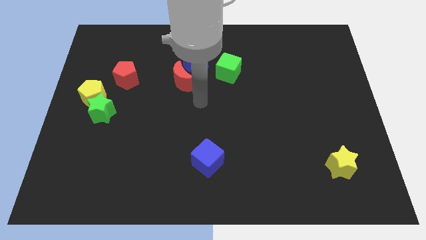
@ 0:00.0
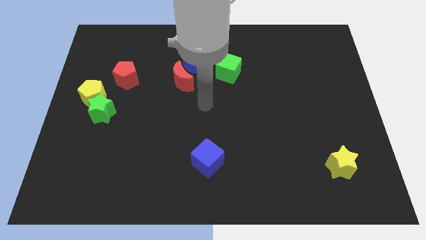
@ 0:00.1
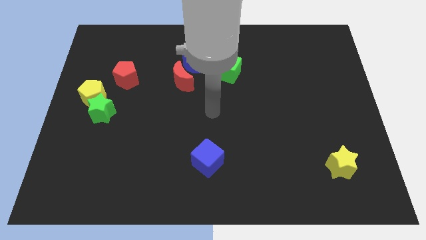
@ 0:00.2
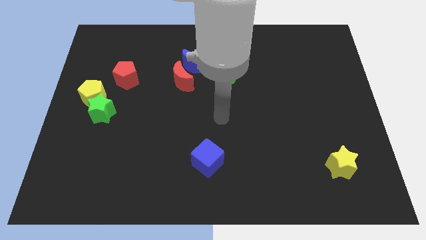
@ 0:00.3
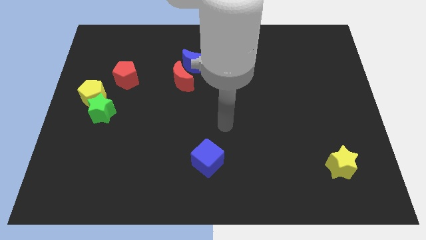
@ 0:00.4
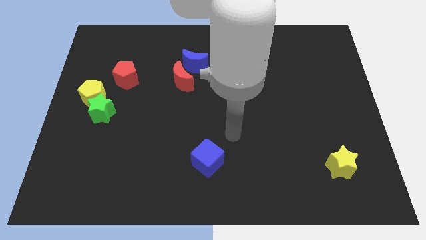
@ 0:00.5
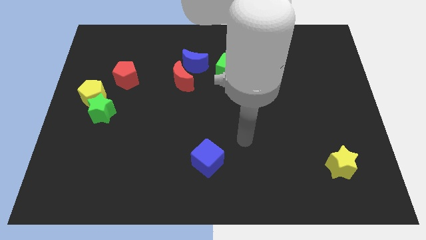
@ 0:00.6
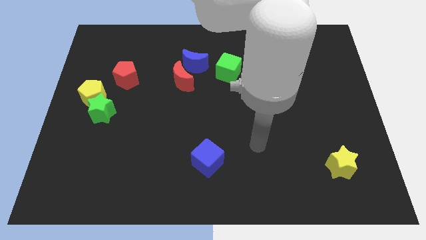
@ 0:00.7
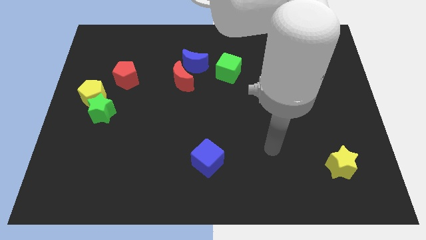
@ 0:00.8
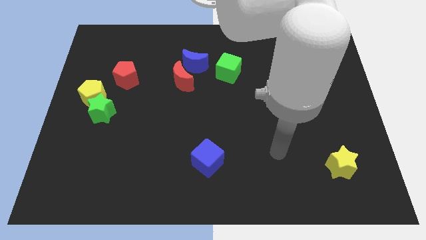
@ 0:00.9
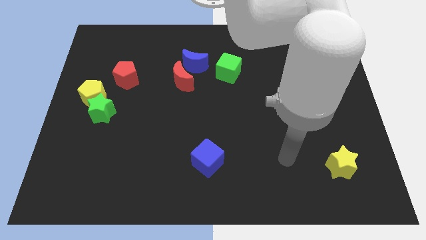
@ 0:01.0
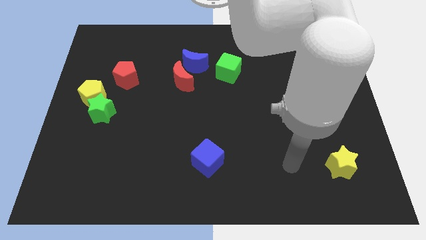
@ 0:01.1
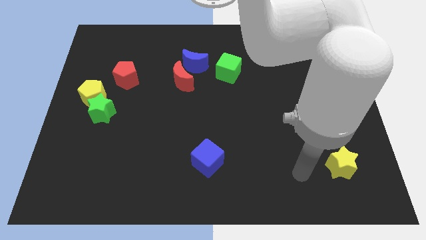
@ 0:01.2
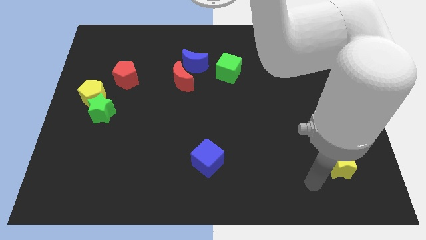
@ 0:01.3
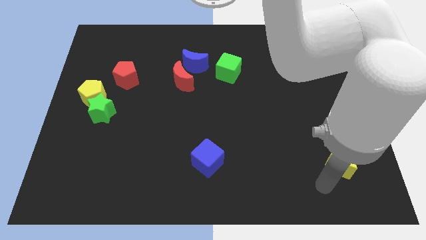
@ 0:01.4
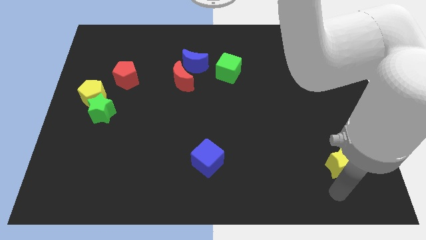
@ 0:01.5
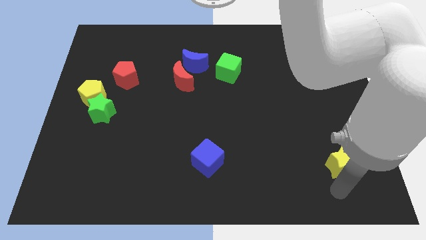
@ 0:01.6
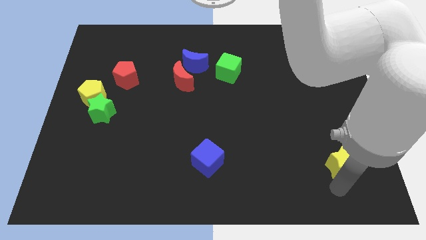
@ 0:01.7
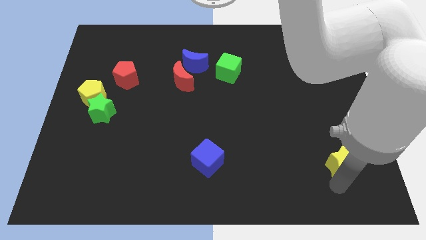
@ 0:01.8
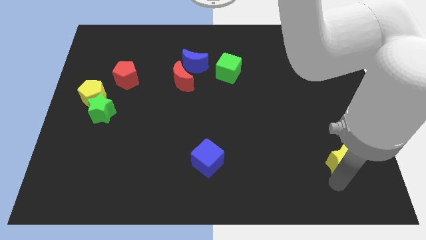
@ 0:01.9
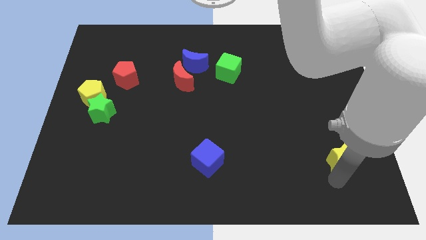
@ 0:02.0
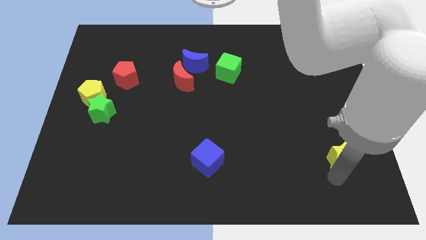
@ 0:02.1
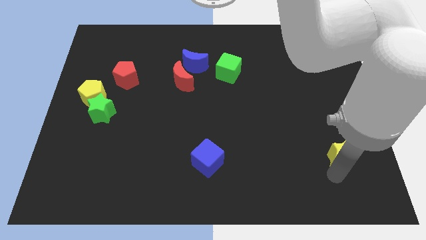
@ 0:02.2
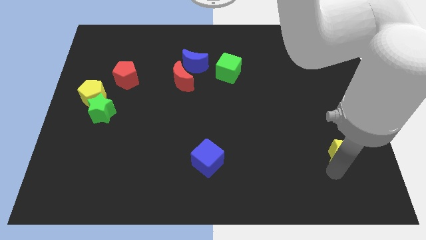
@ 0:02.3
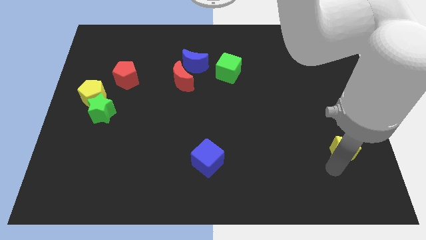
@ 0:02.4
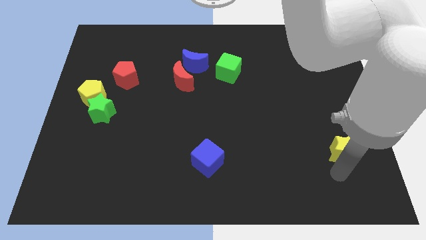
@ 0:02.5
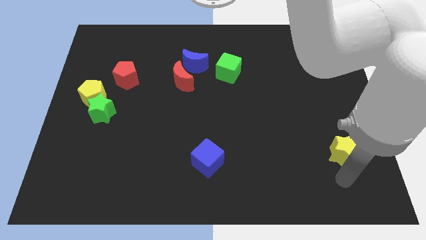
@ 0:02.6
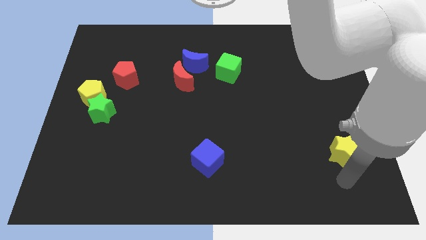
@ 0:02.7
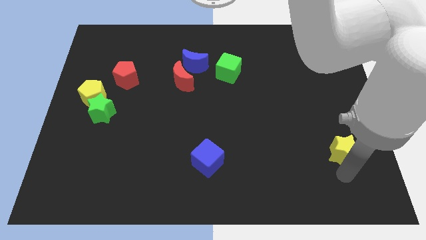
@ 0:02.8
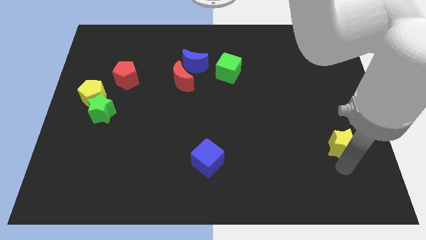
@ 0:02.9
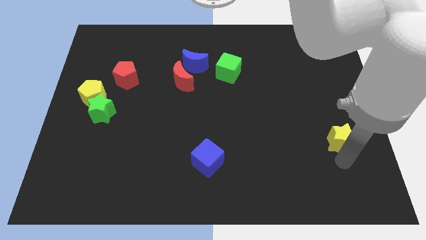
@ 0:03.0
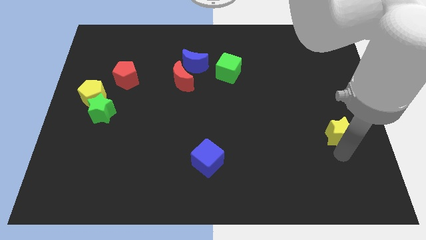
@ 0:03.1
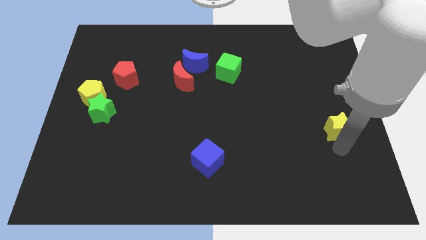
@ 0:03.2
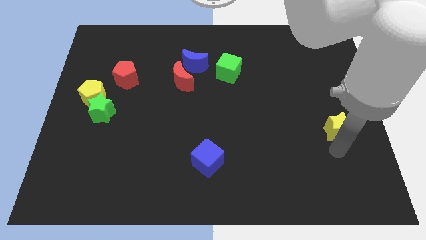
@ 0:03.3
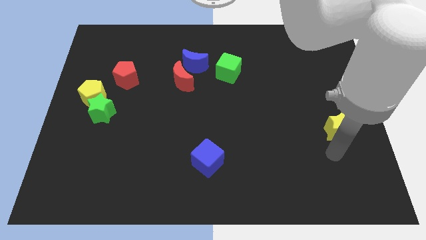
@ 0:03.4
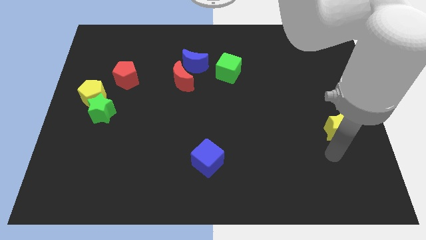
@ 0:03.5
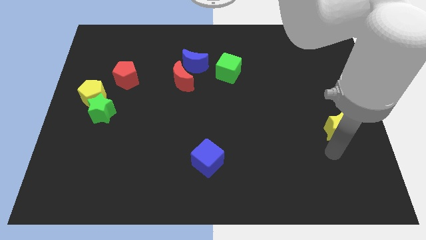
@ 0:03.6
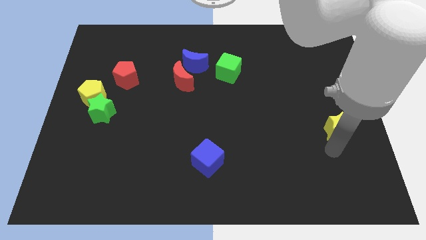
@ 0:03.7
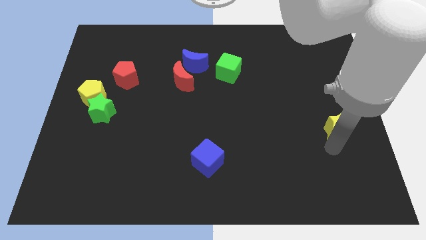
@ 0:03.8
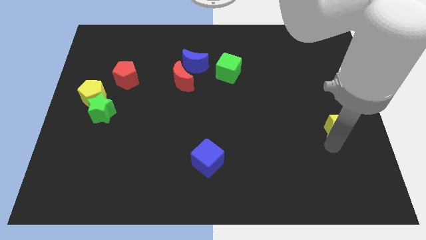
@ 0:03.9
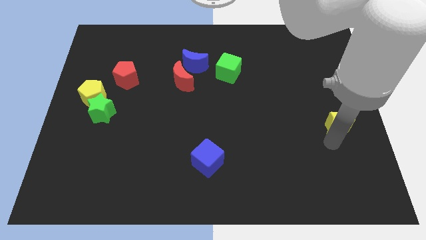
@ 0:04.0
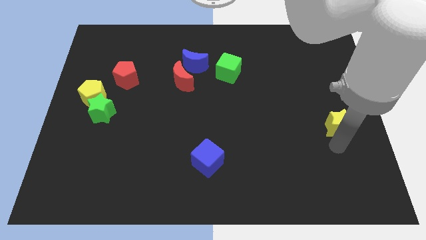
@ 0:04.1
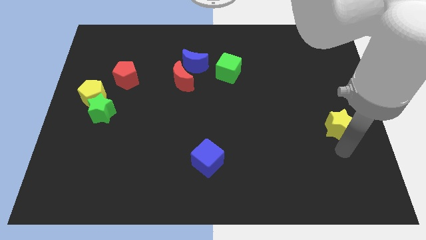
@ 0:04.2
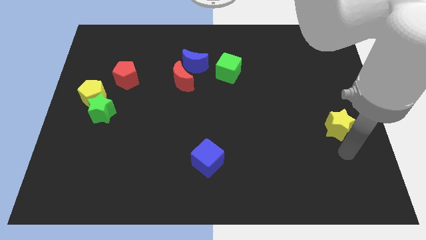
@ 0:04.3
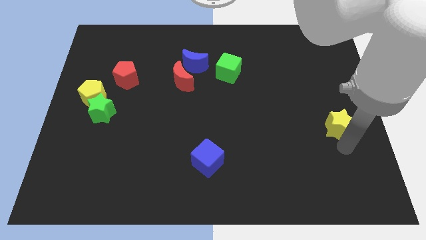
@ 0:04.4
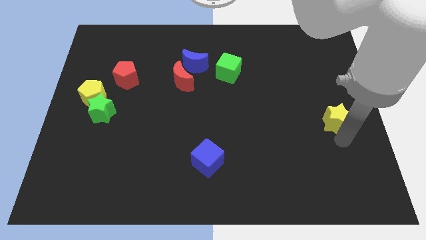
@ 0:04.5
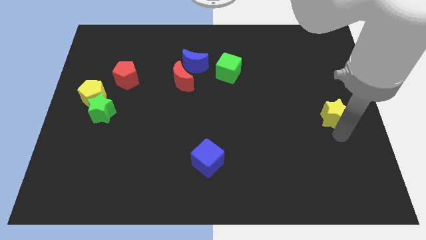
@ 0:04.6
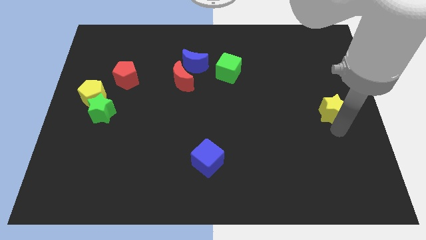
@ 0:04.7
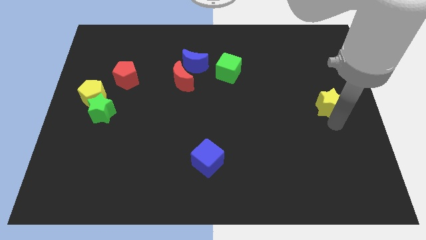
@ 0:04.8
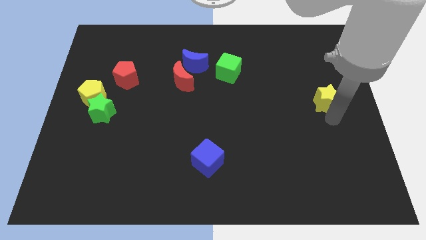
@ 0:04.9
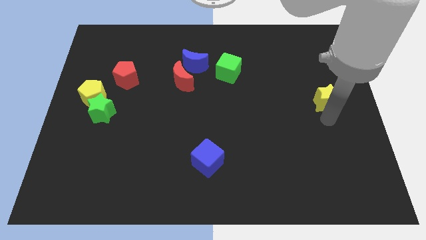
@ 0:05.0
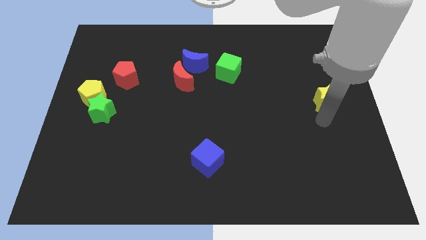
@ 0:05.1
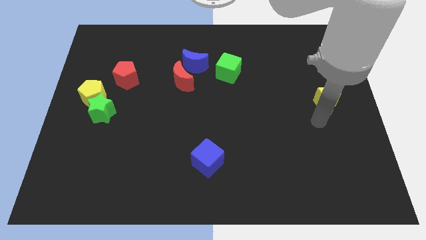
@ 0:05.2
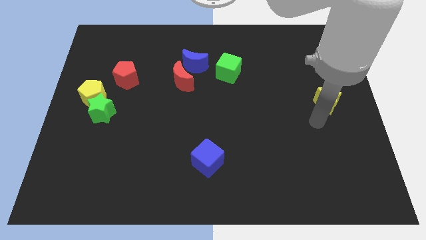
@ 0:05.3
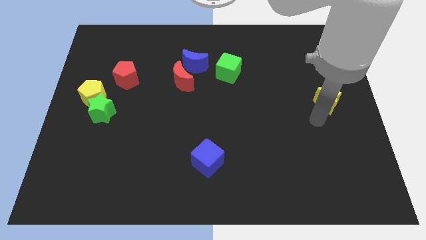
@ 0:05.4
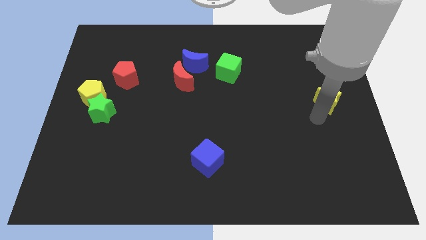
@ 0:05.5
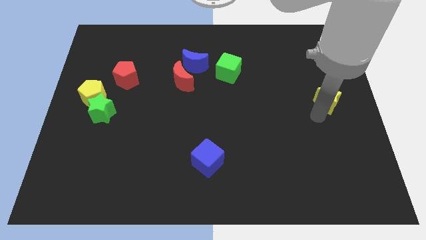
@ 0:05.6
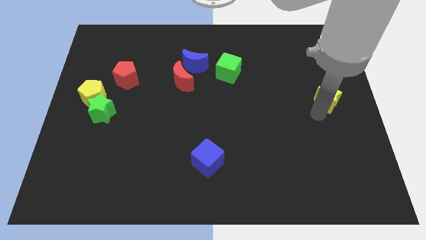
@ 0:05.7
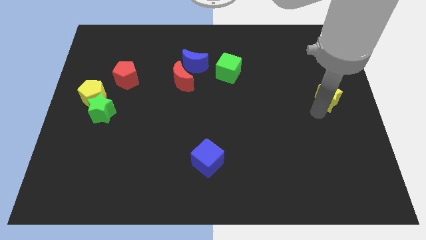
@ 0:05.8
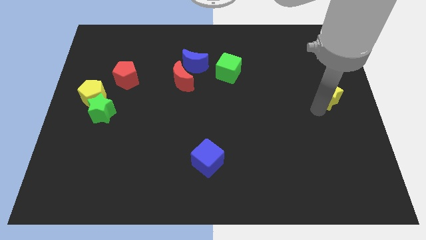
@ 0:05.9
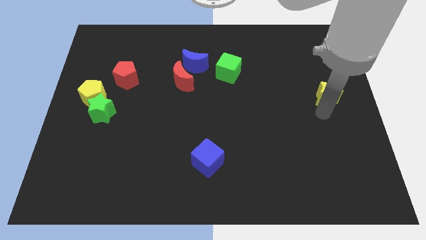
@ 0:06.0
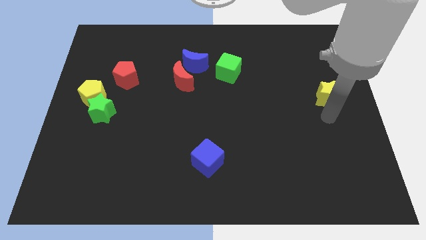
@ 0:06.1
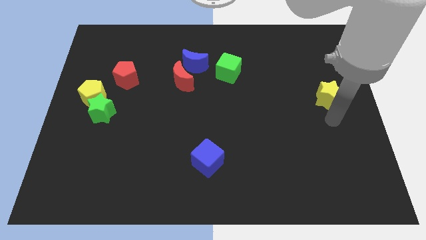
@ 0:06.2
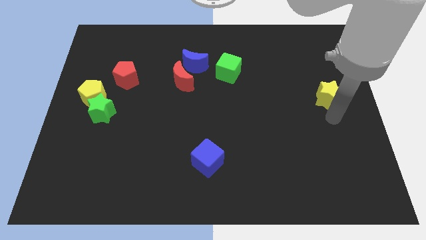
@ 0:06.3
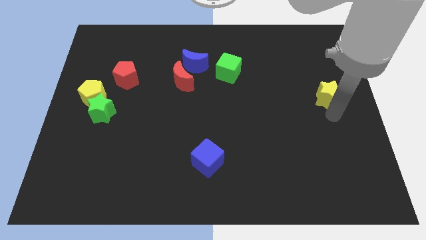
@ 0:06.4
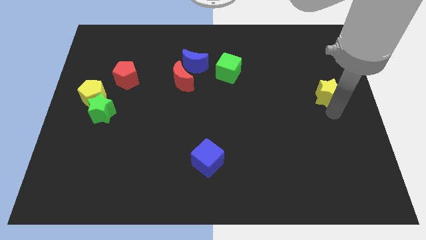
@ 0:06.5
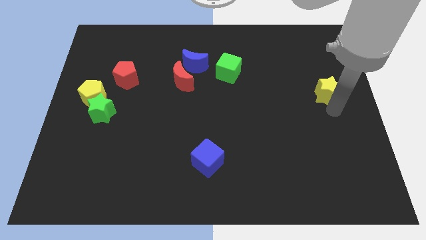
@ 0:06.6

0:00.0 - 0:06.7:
slide the yellow star up

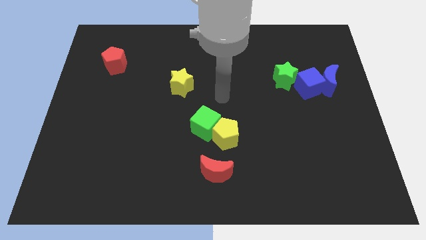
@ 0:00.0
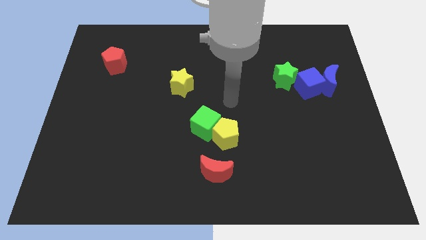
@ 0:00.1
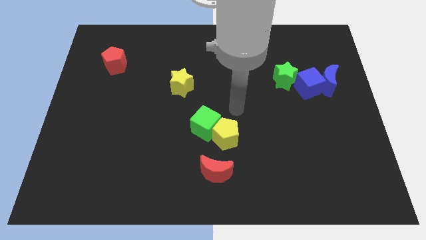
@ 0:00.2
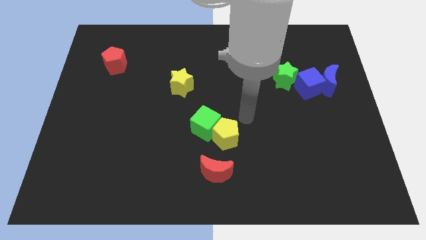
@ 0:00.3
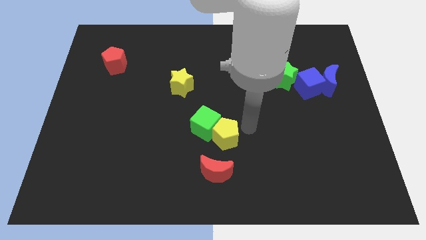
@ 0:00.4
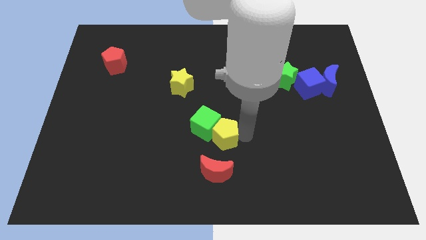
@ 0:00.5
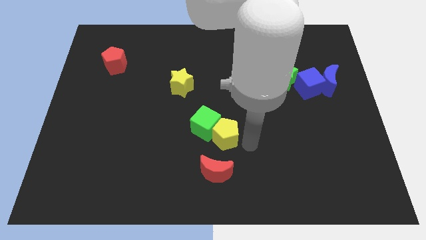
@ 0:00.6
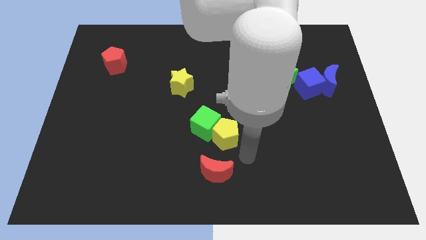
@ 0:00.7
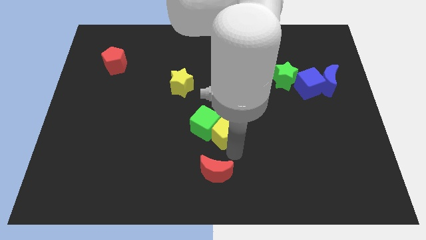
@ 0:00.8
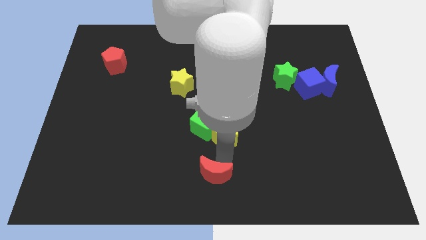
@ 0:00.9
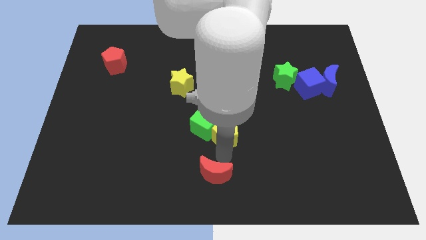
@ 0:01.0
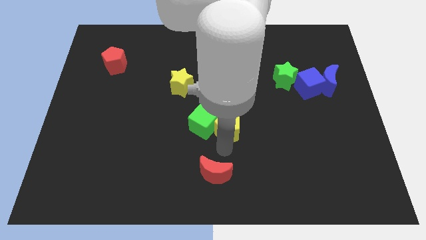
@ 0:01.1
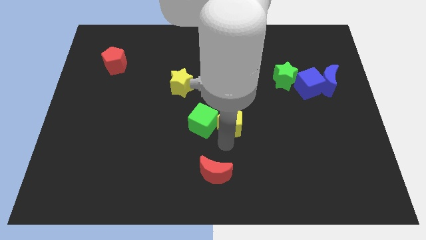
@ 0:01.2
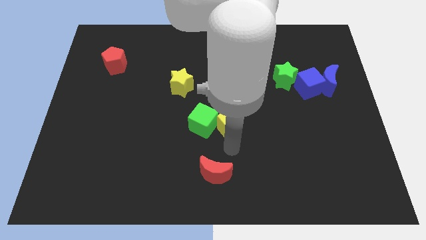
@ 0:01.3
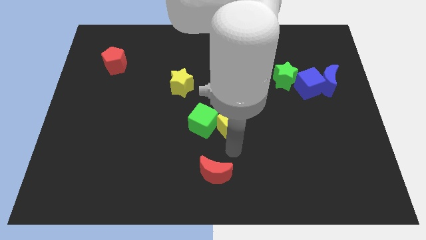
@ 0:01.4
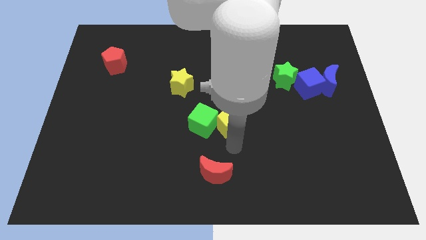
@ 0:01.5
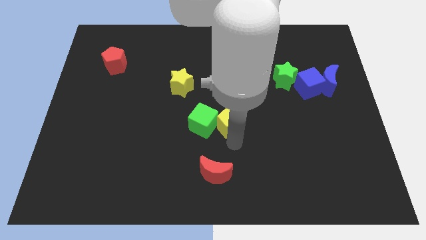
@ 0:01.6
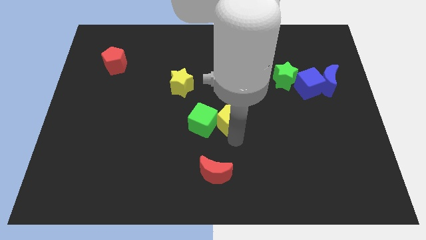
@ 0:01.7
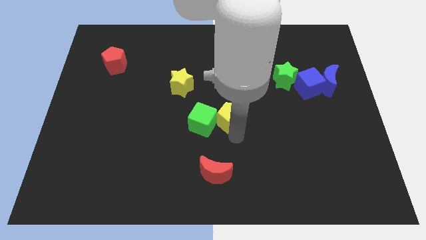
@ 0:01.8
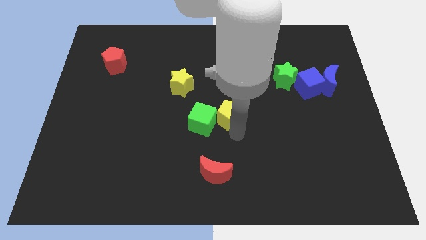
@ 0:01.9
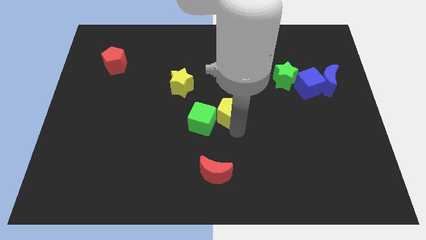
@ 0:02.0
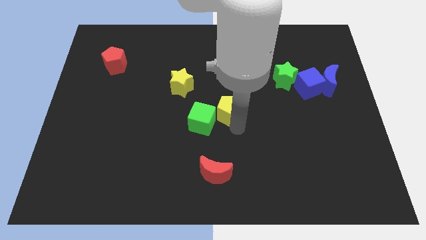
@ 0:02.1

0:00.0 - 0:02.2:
slide the yellow pentagon a bit up
